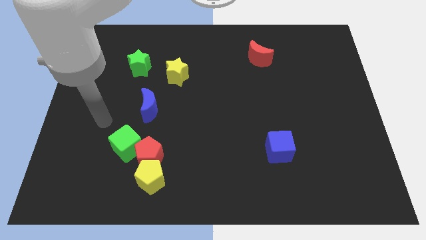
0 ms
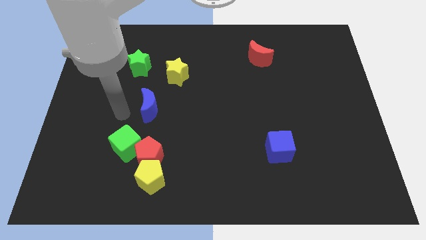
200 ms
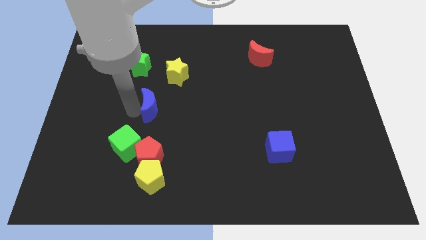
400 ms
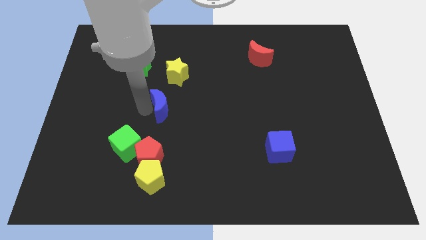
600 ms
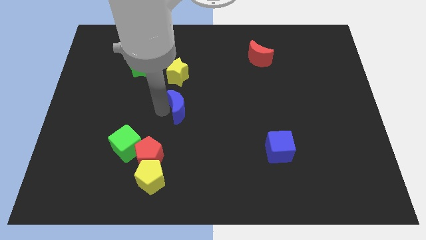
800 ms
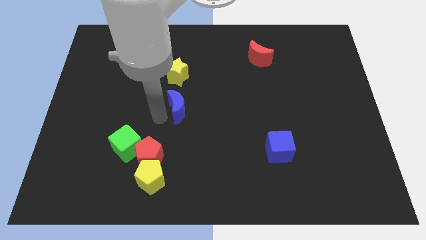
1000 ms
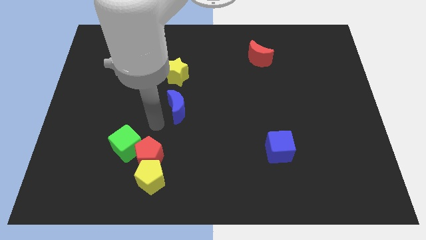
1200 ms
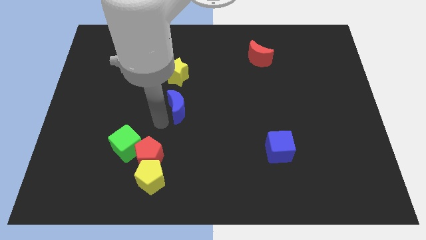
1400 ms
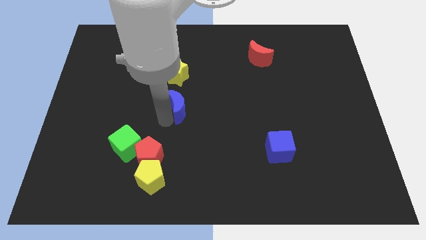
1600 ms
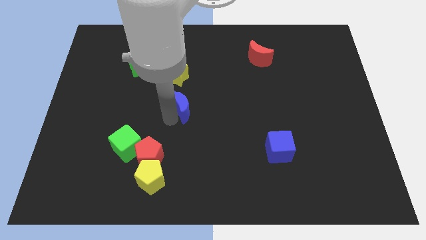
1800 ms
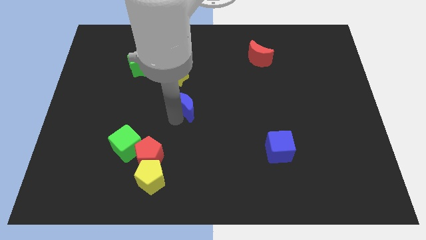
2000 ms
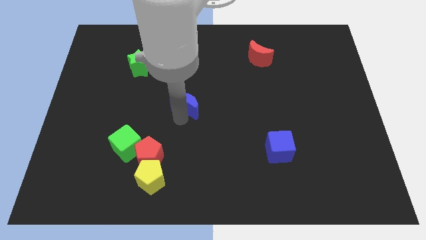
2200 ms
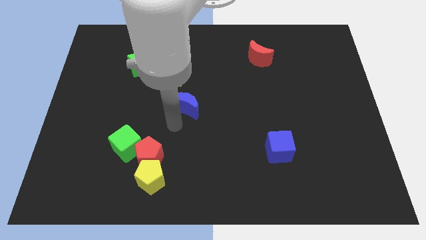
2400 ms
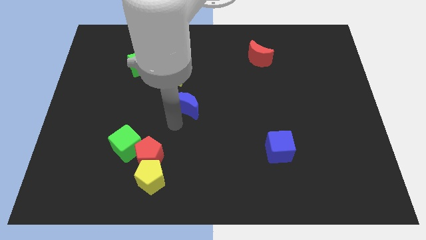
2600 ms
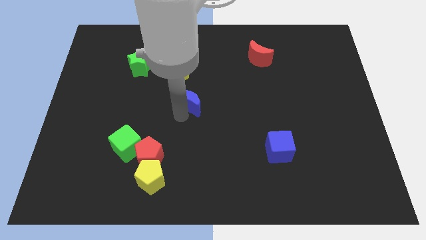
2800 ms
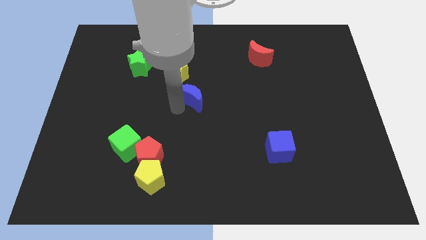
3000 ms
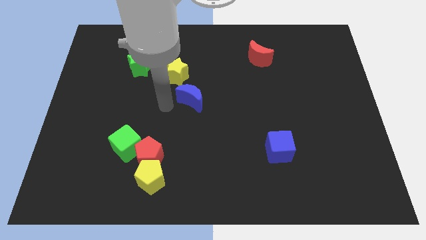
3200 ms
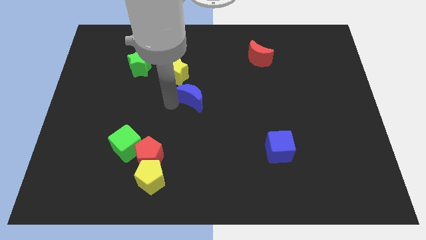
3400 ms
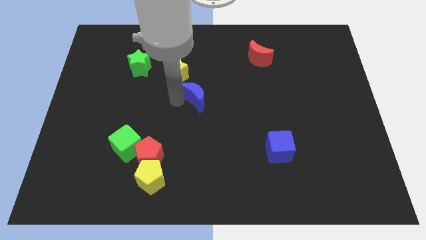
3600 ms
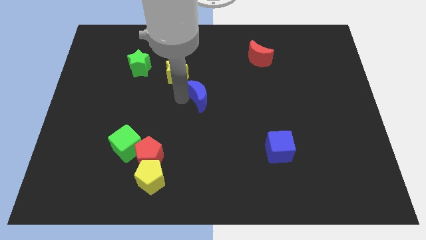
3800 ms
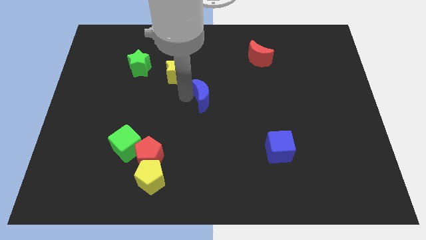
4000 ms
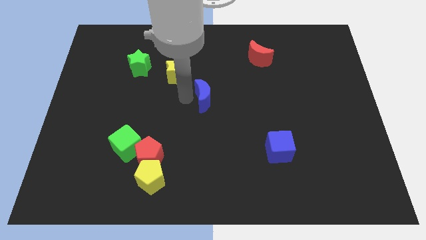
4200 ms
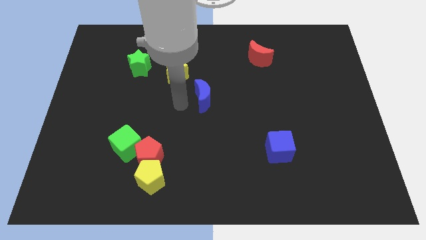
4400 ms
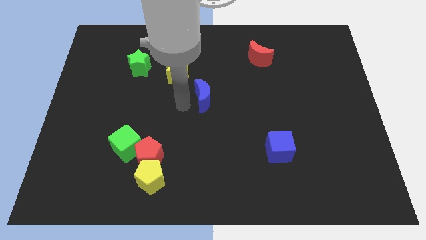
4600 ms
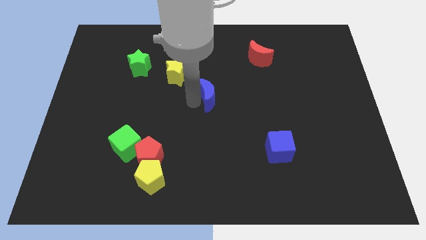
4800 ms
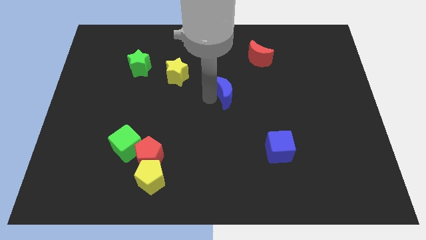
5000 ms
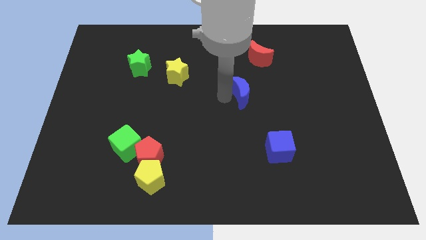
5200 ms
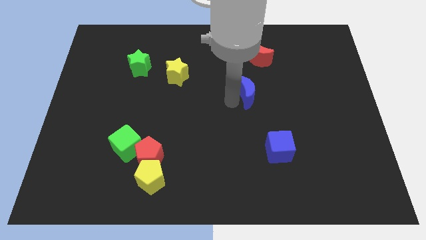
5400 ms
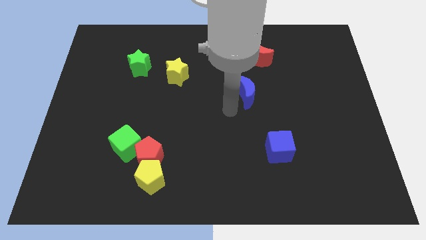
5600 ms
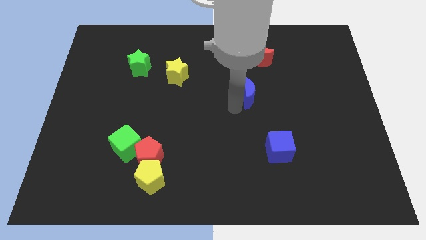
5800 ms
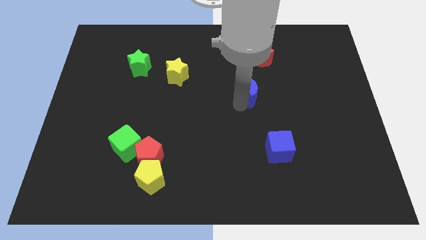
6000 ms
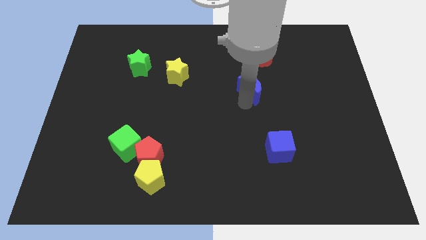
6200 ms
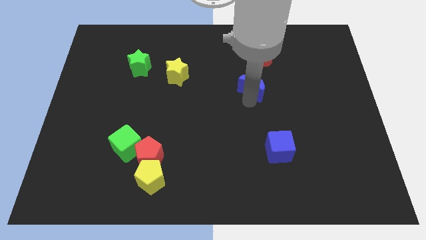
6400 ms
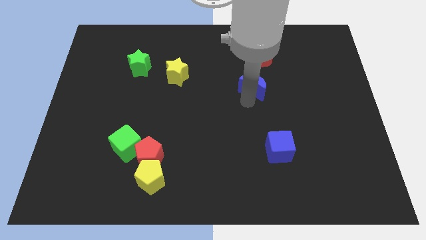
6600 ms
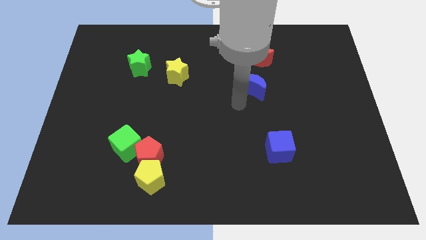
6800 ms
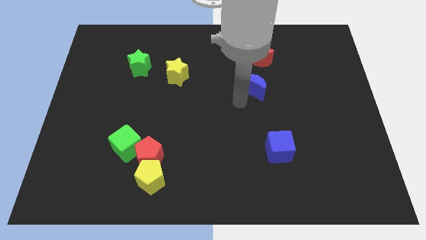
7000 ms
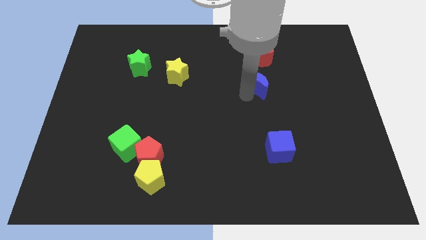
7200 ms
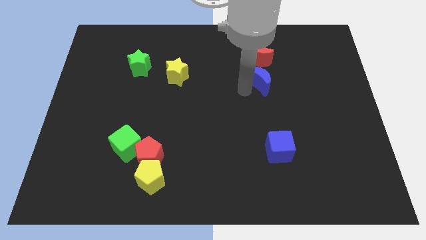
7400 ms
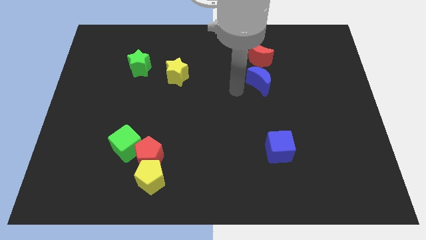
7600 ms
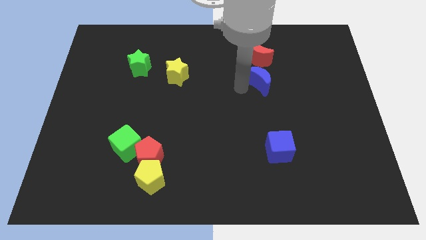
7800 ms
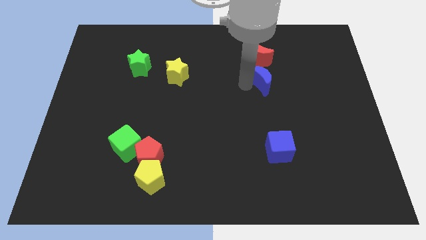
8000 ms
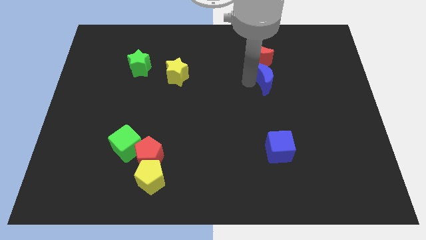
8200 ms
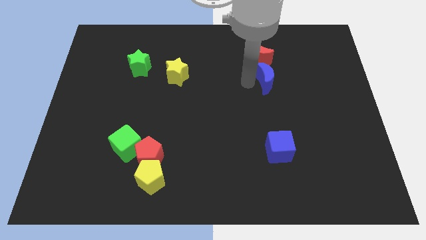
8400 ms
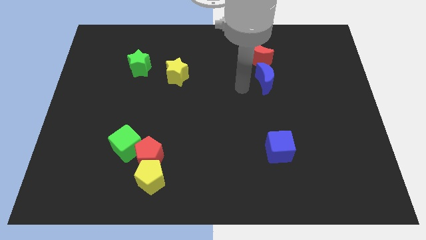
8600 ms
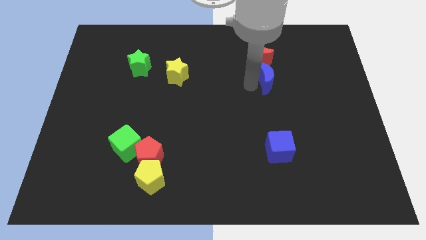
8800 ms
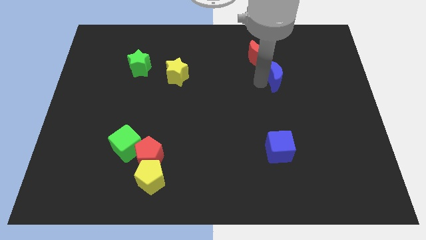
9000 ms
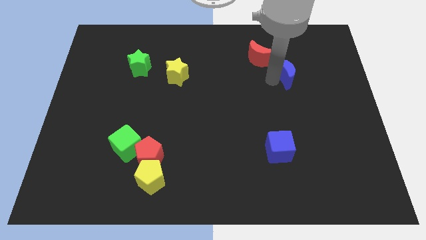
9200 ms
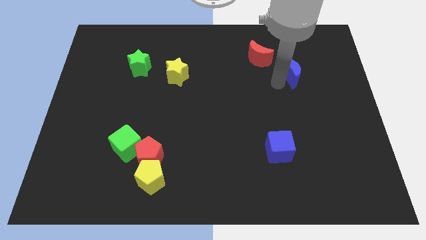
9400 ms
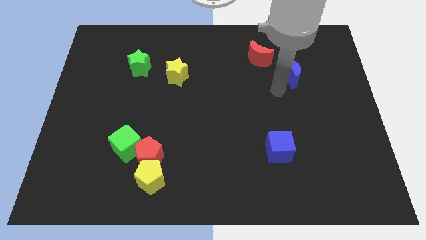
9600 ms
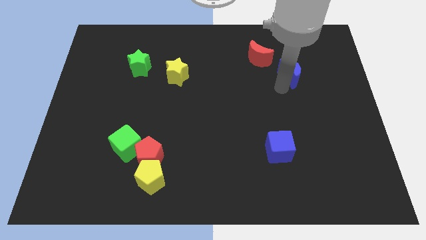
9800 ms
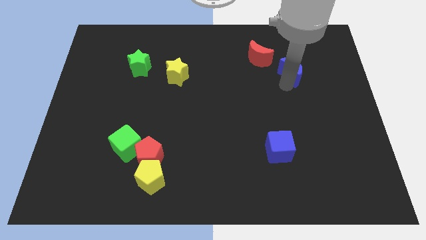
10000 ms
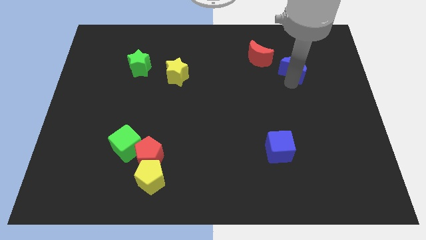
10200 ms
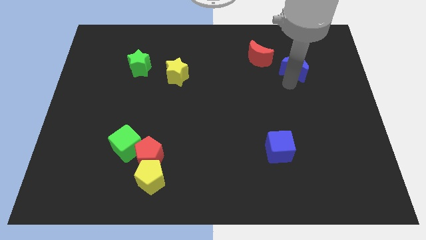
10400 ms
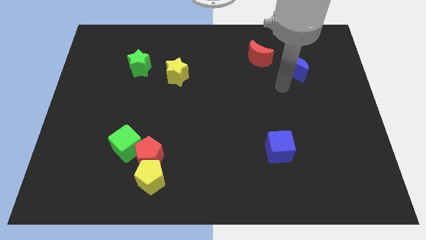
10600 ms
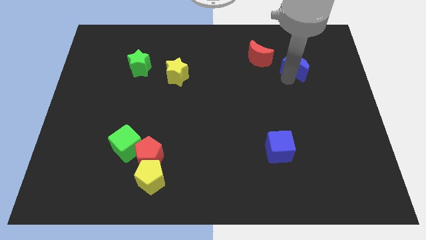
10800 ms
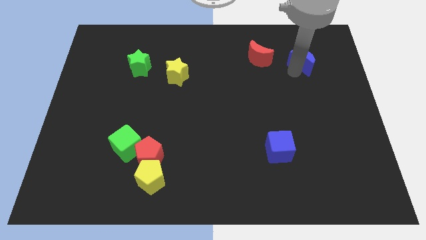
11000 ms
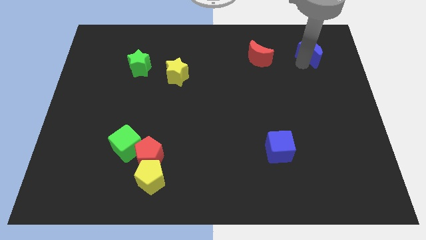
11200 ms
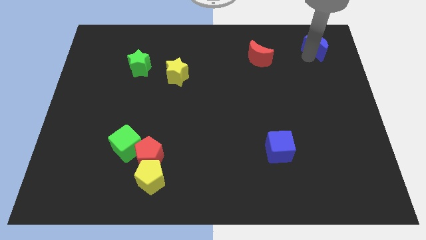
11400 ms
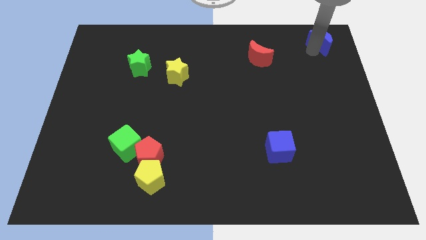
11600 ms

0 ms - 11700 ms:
put the blue moon to the upper right corner
